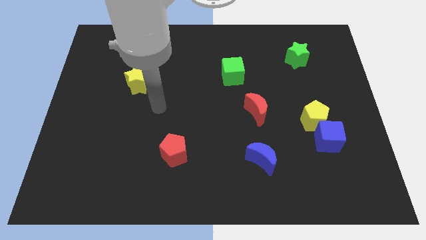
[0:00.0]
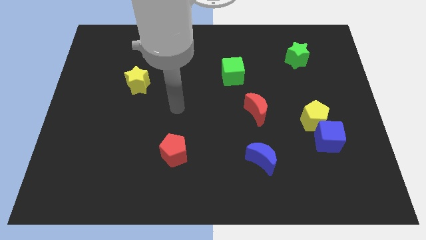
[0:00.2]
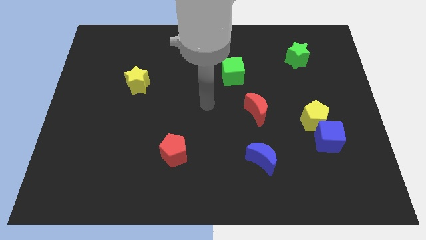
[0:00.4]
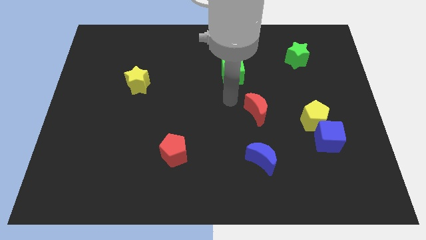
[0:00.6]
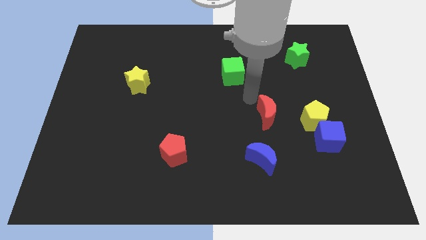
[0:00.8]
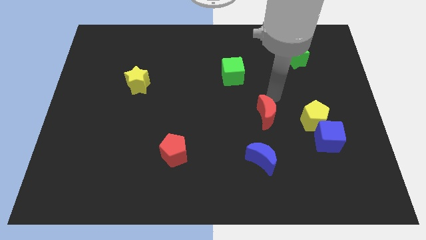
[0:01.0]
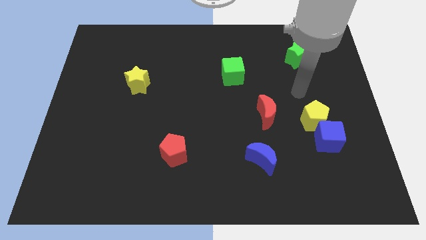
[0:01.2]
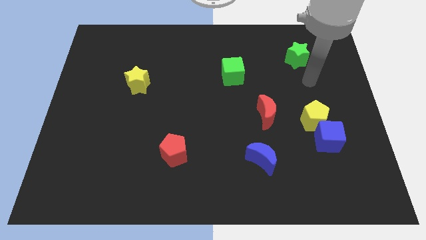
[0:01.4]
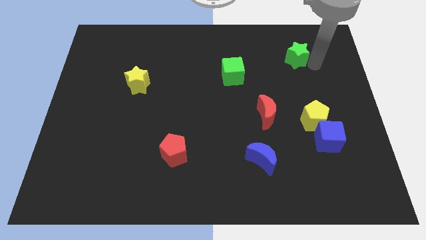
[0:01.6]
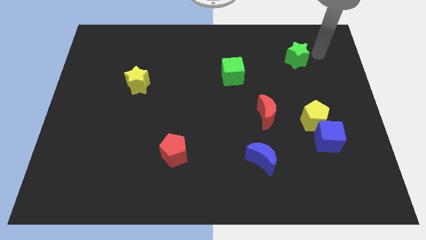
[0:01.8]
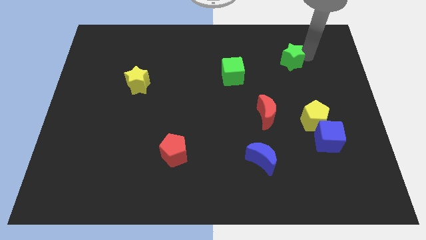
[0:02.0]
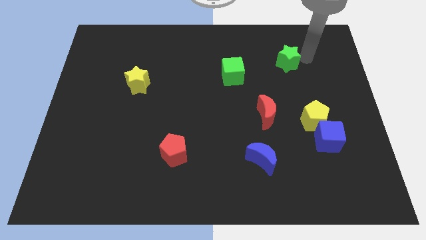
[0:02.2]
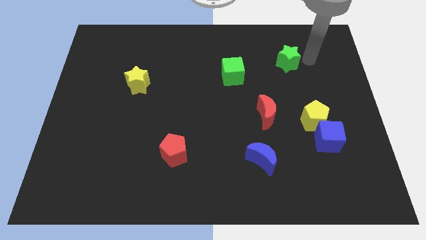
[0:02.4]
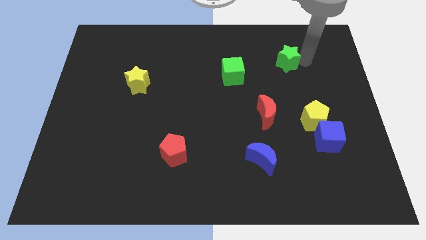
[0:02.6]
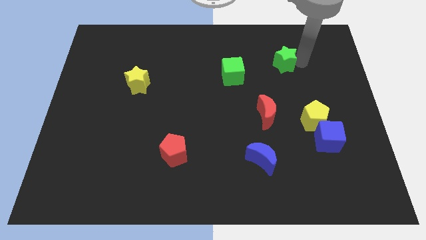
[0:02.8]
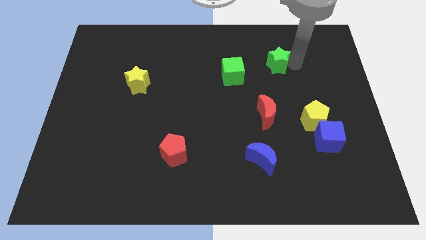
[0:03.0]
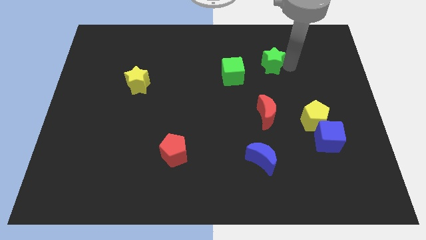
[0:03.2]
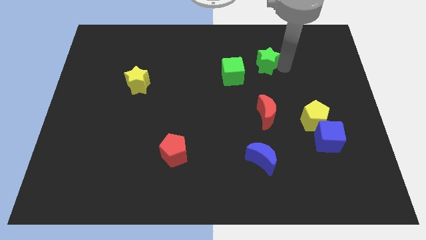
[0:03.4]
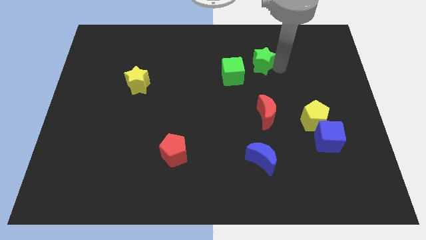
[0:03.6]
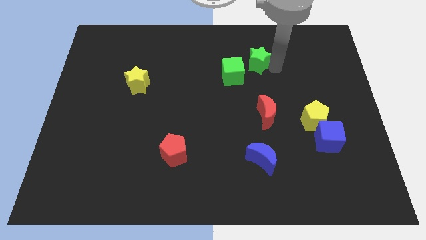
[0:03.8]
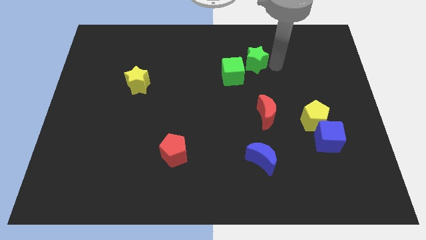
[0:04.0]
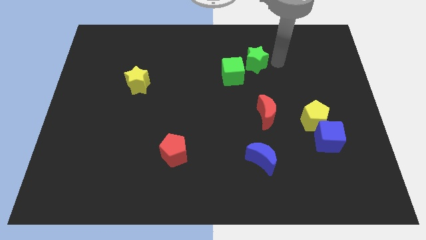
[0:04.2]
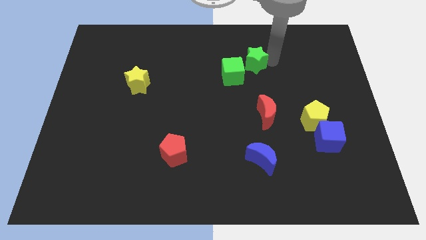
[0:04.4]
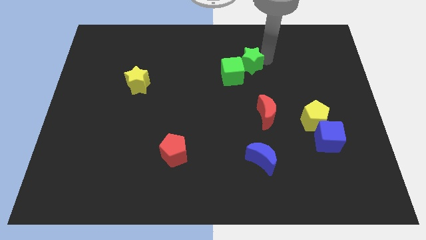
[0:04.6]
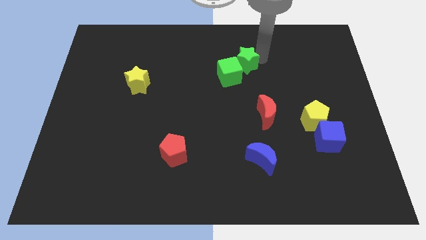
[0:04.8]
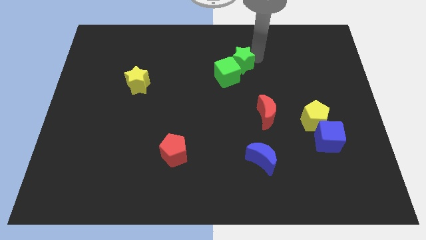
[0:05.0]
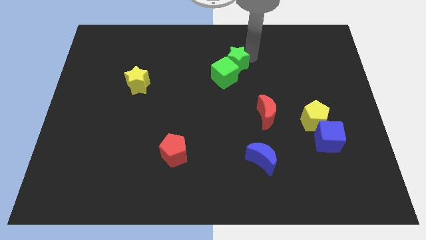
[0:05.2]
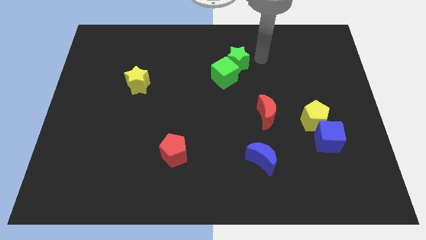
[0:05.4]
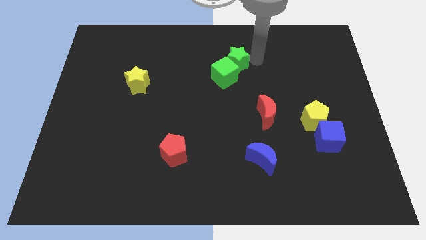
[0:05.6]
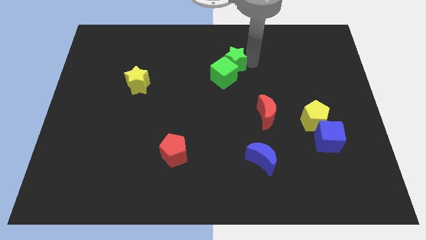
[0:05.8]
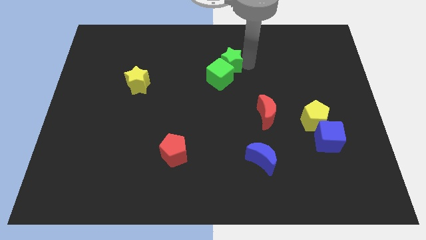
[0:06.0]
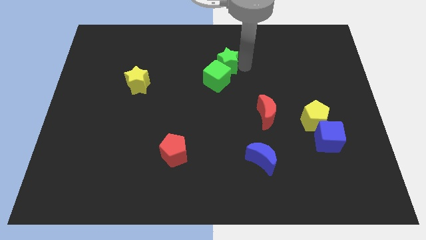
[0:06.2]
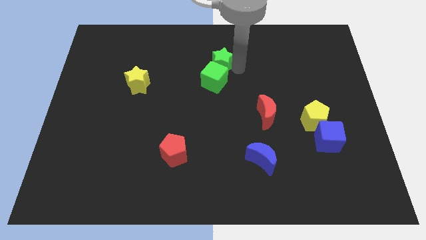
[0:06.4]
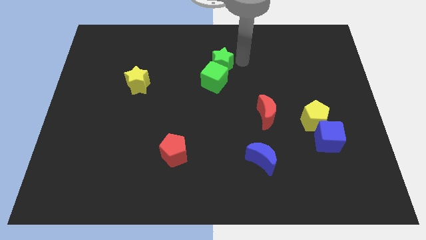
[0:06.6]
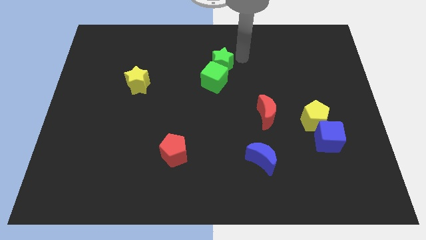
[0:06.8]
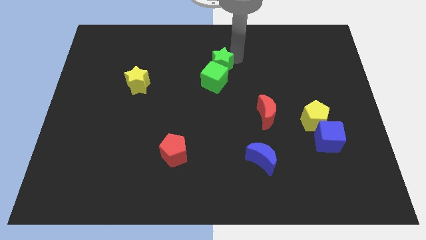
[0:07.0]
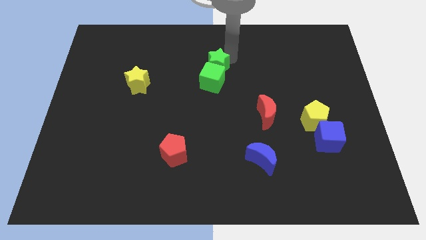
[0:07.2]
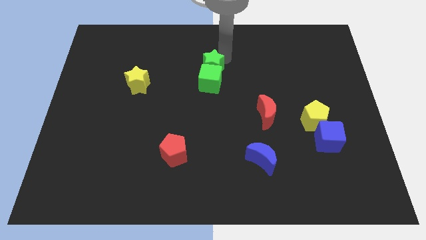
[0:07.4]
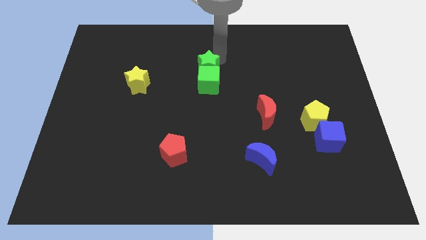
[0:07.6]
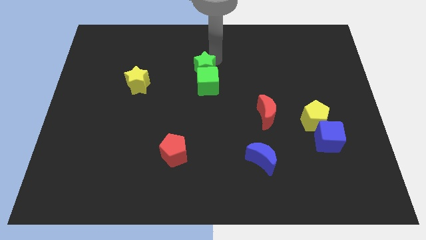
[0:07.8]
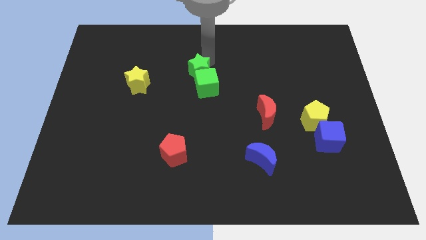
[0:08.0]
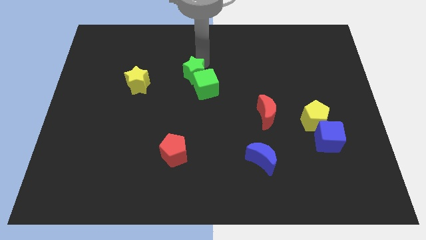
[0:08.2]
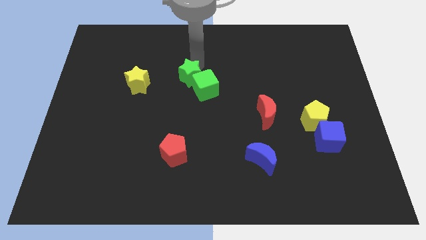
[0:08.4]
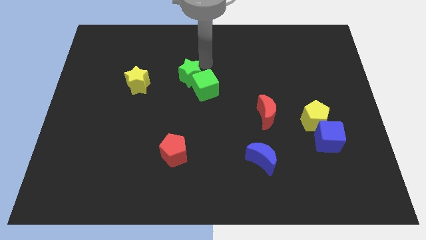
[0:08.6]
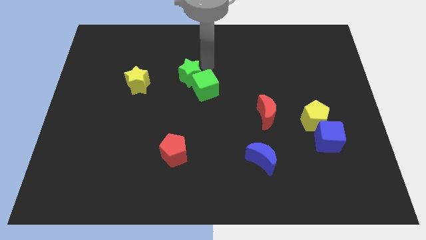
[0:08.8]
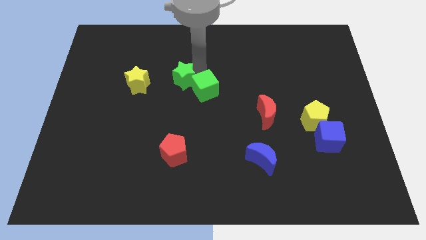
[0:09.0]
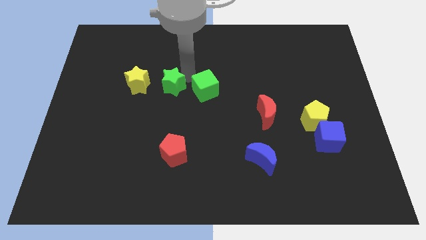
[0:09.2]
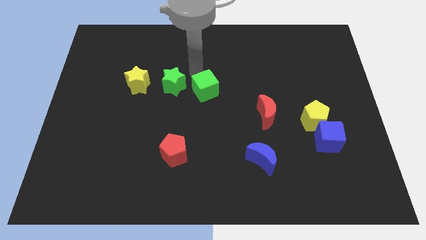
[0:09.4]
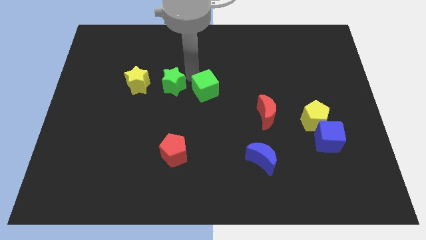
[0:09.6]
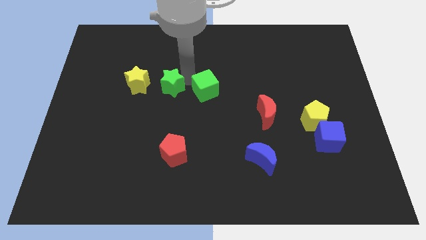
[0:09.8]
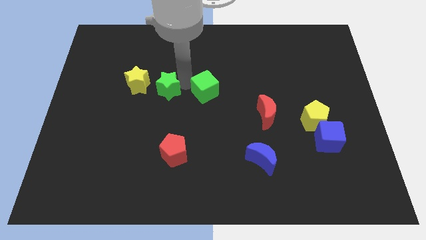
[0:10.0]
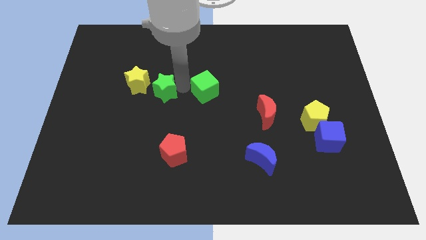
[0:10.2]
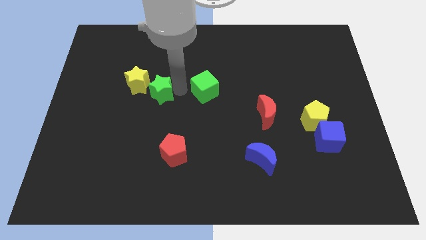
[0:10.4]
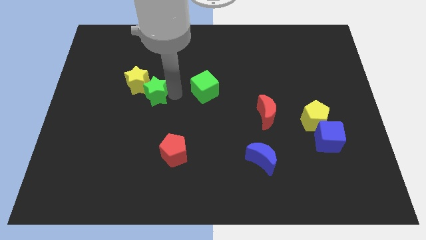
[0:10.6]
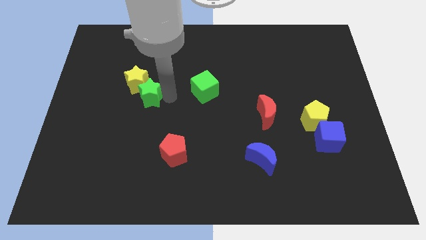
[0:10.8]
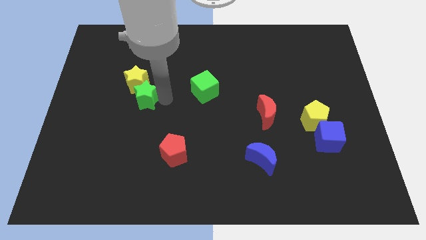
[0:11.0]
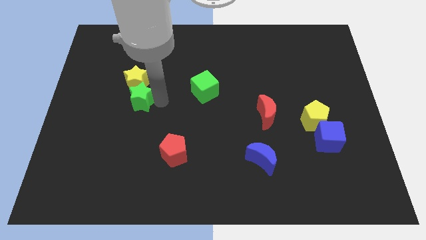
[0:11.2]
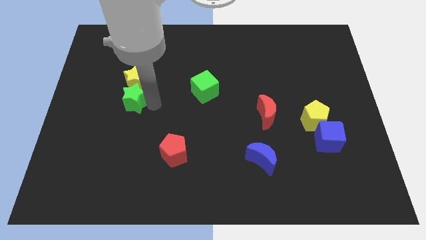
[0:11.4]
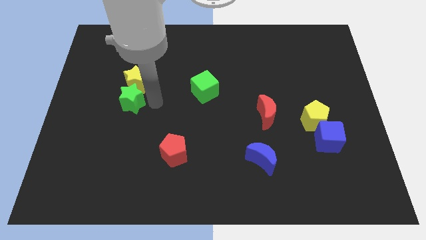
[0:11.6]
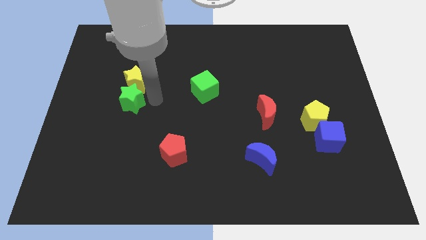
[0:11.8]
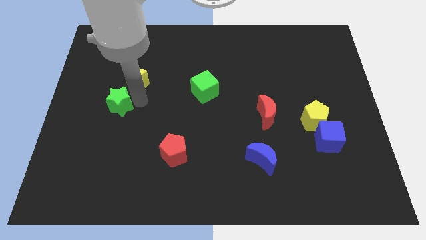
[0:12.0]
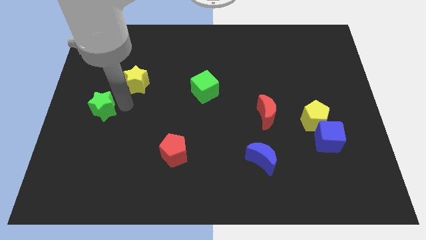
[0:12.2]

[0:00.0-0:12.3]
move the green star to the center left

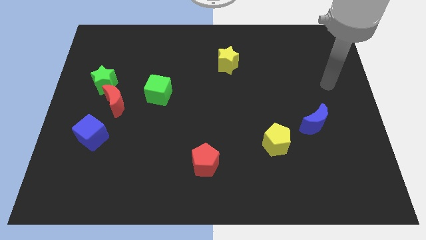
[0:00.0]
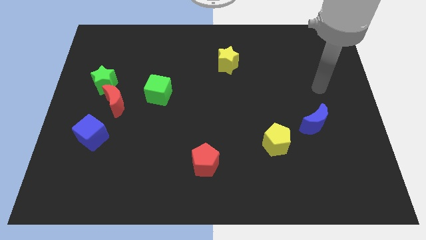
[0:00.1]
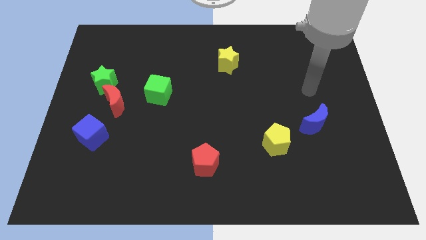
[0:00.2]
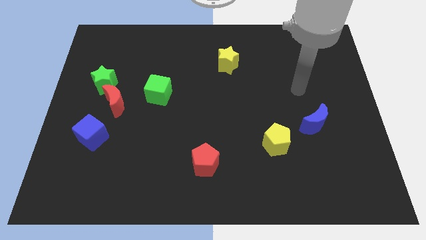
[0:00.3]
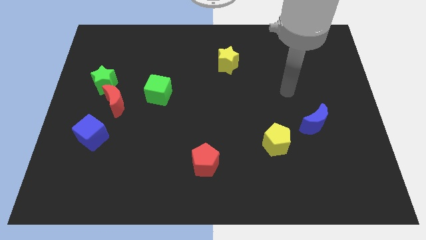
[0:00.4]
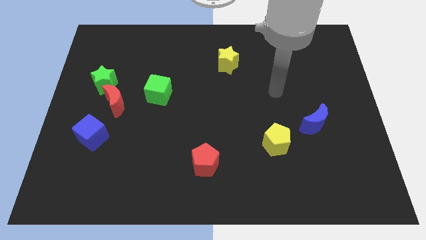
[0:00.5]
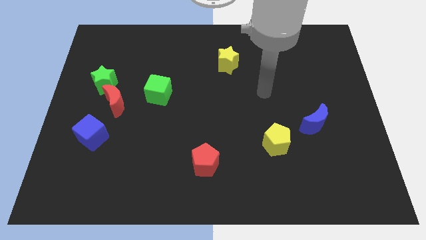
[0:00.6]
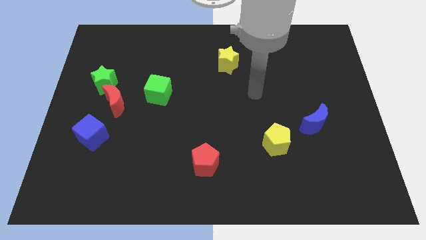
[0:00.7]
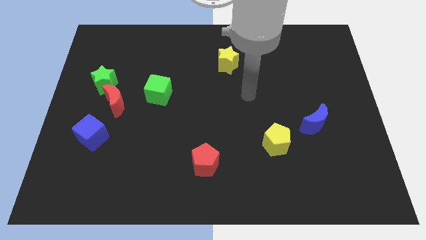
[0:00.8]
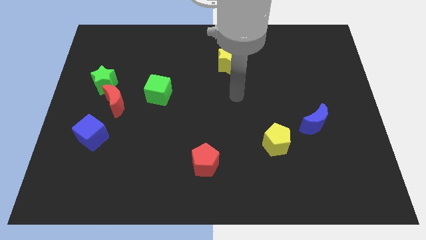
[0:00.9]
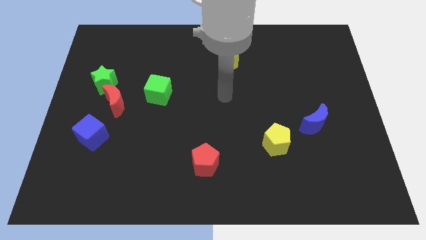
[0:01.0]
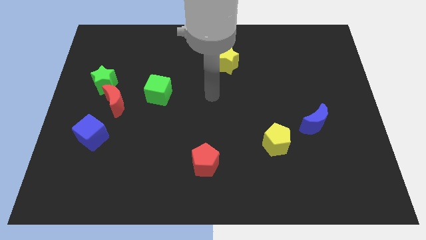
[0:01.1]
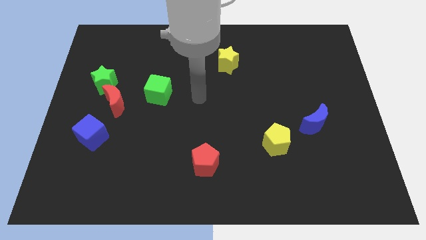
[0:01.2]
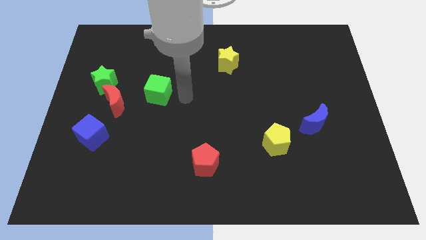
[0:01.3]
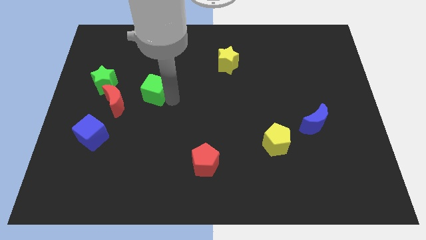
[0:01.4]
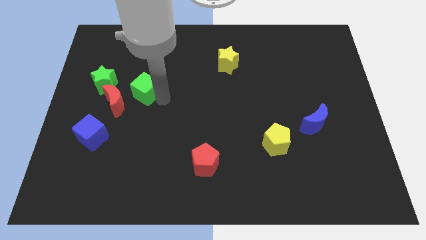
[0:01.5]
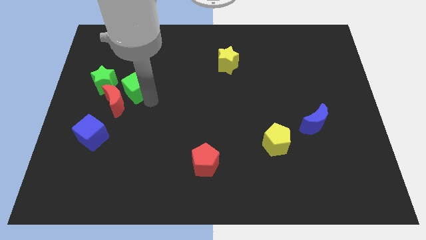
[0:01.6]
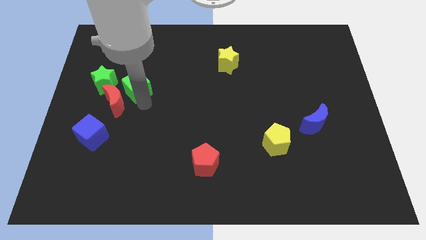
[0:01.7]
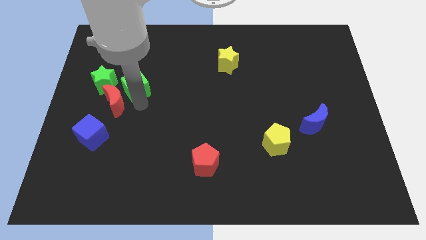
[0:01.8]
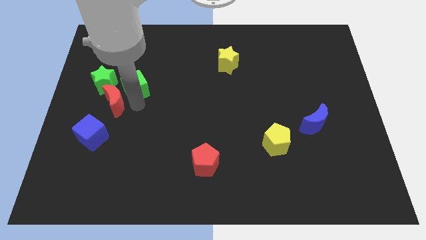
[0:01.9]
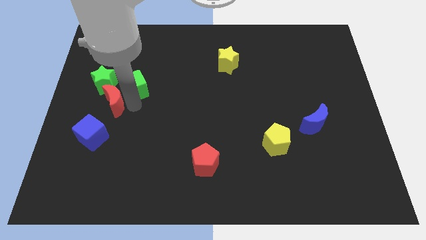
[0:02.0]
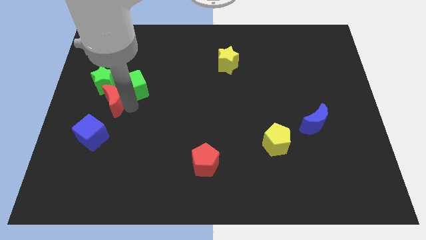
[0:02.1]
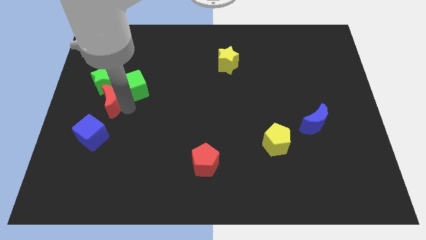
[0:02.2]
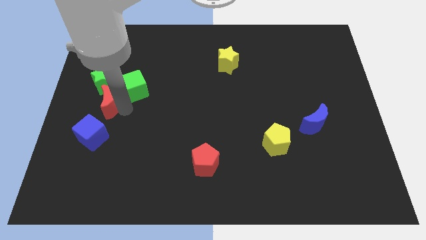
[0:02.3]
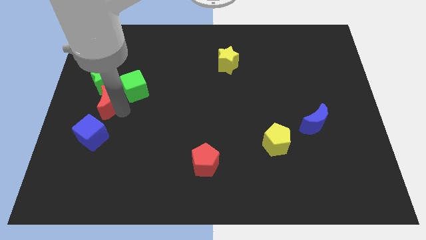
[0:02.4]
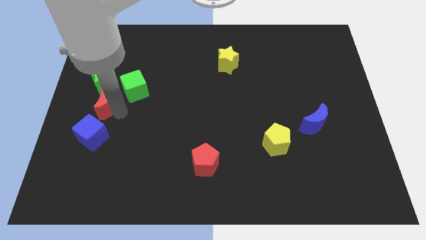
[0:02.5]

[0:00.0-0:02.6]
put the red moon to the center left
